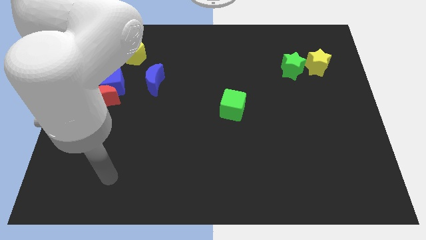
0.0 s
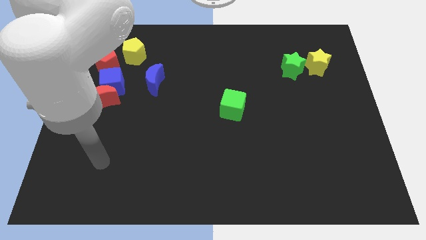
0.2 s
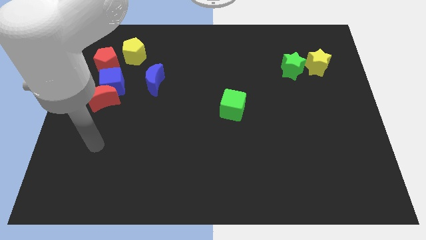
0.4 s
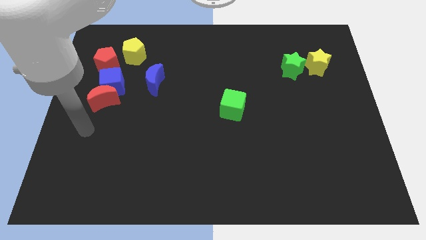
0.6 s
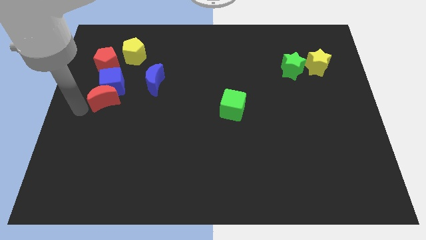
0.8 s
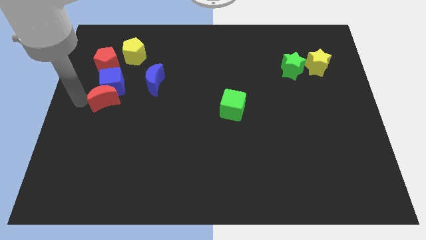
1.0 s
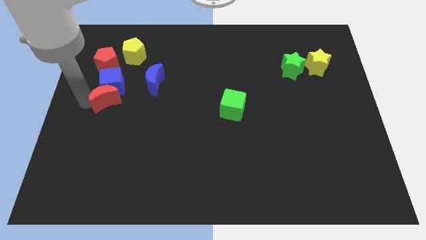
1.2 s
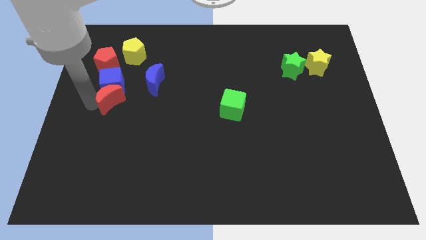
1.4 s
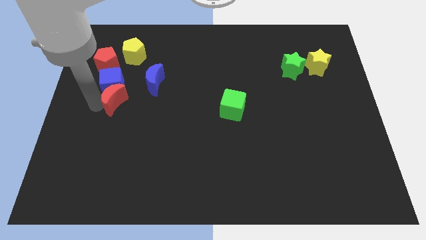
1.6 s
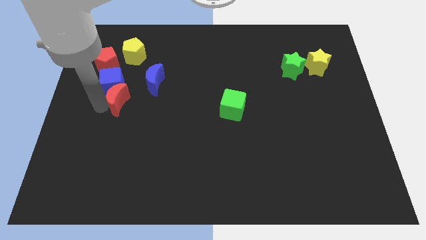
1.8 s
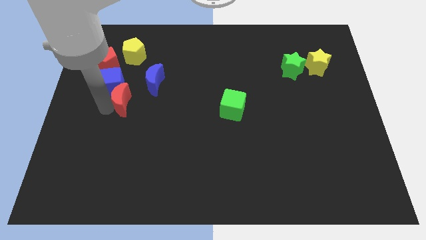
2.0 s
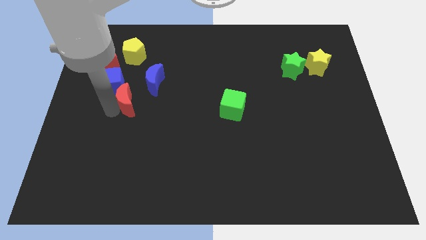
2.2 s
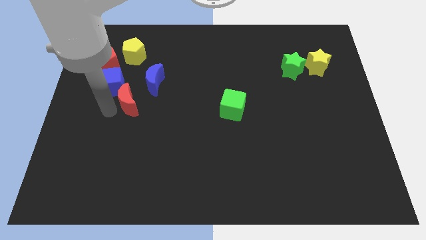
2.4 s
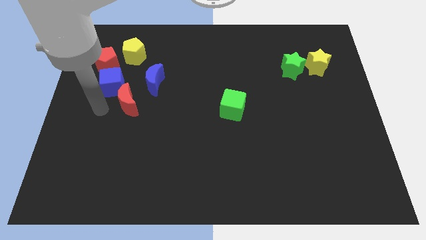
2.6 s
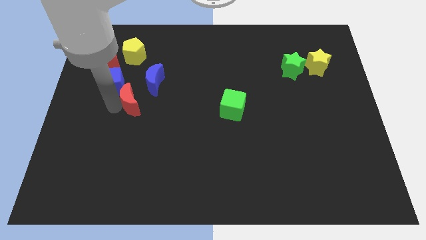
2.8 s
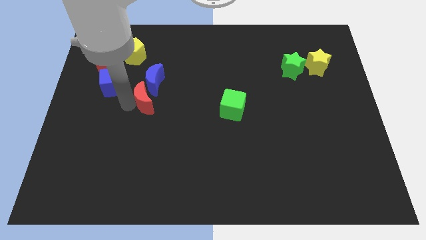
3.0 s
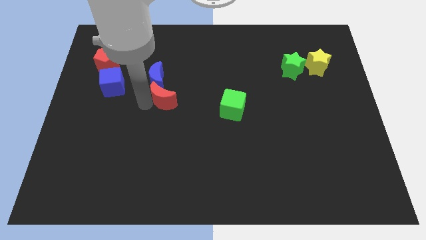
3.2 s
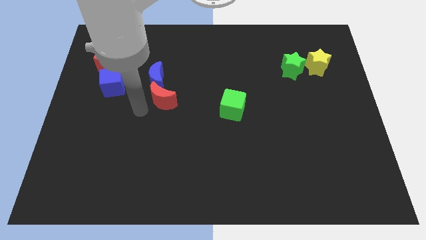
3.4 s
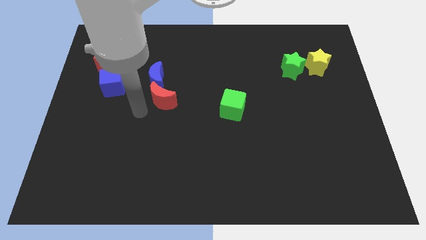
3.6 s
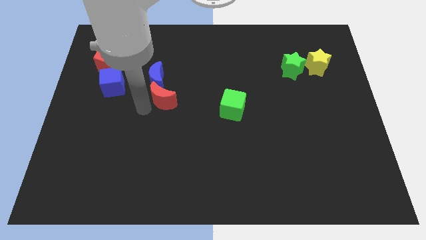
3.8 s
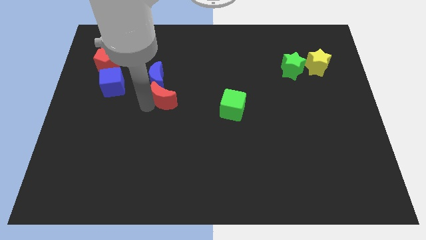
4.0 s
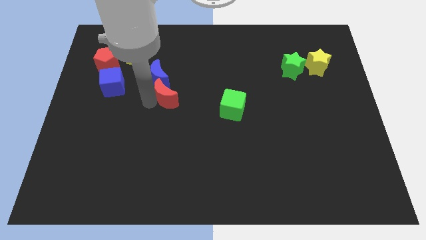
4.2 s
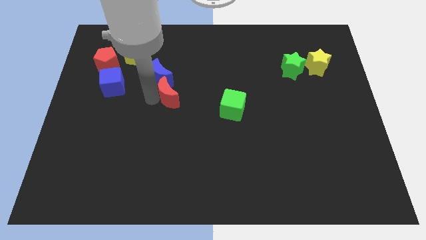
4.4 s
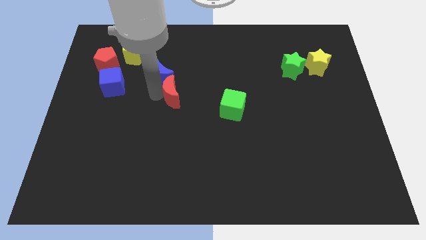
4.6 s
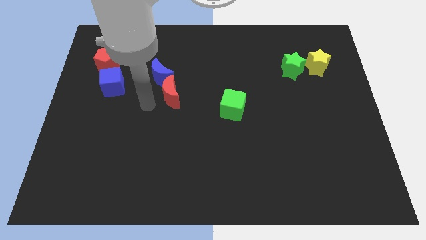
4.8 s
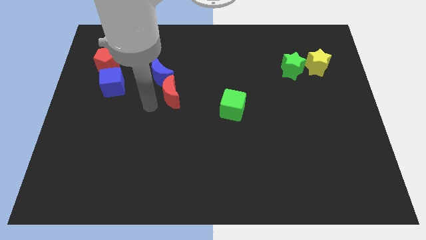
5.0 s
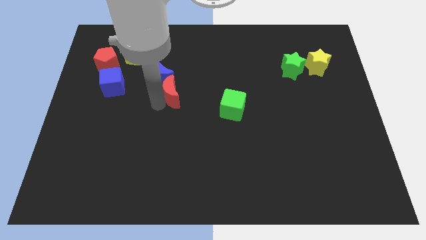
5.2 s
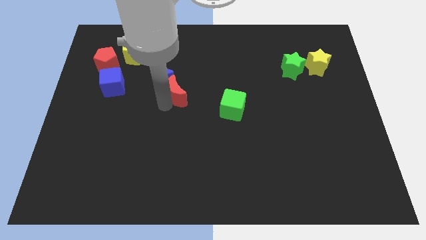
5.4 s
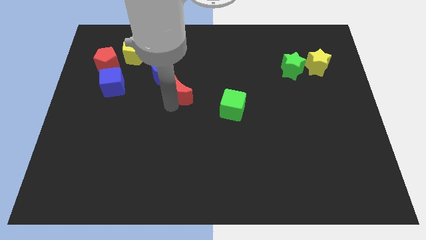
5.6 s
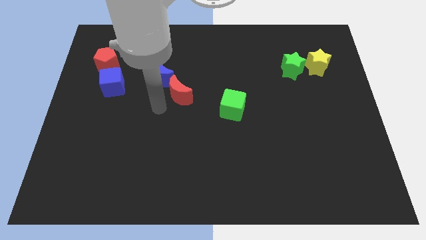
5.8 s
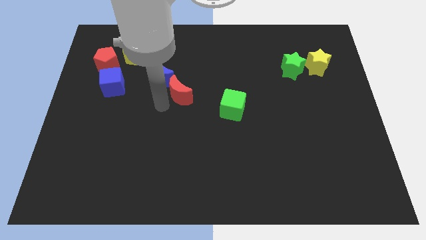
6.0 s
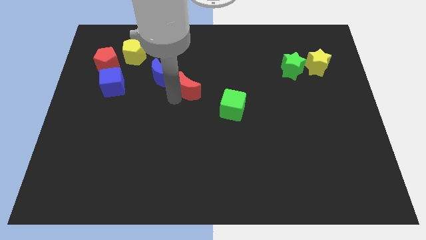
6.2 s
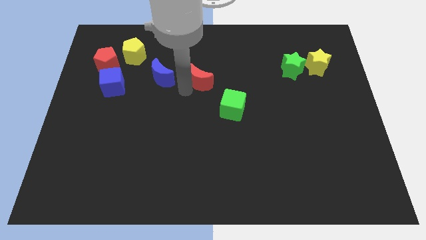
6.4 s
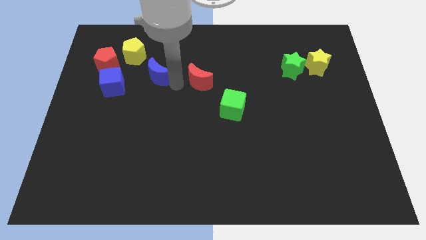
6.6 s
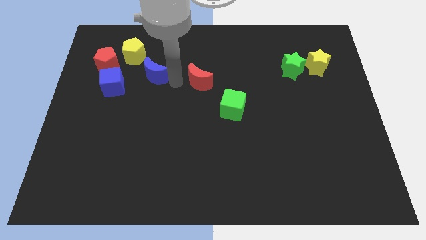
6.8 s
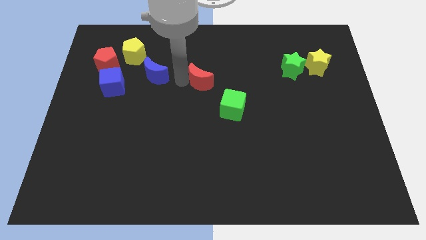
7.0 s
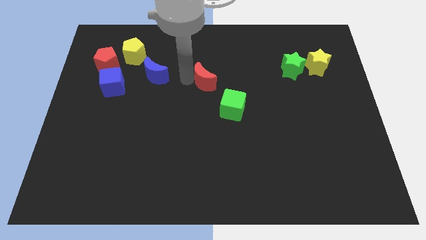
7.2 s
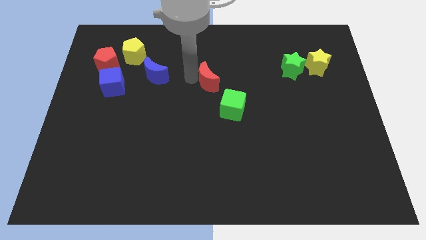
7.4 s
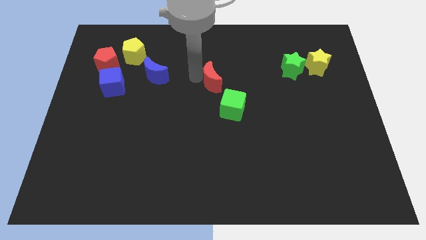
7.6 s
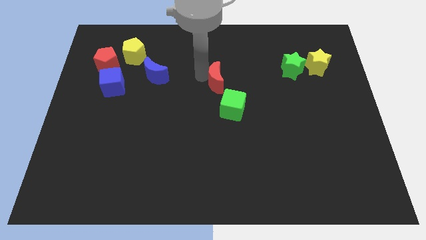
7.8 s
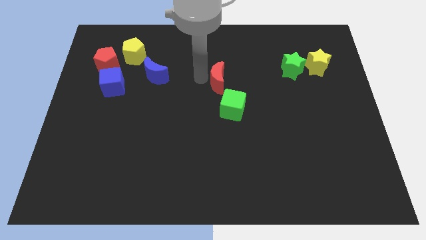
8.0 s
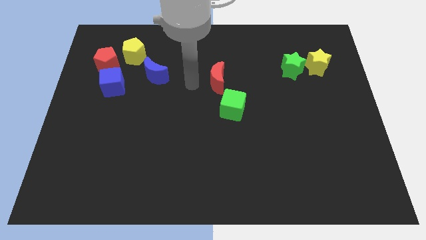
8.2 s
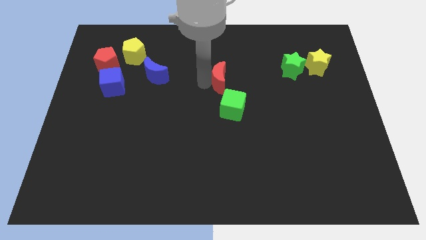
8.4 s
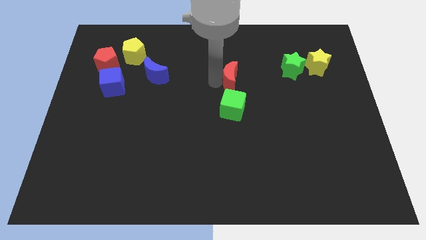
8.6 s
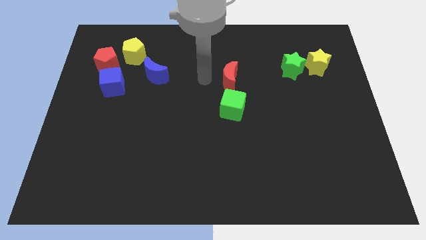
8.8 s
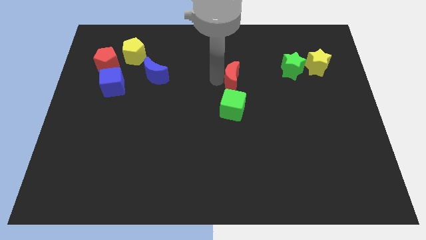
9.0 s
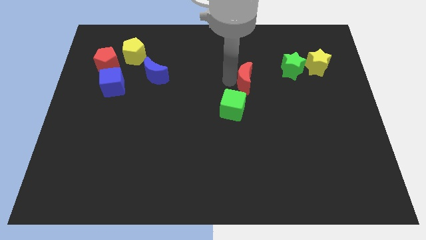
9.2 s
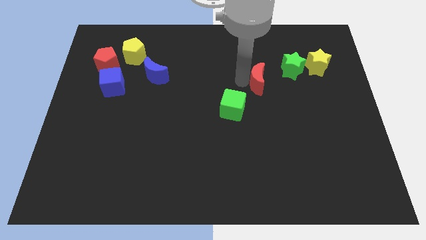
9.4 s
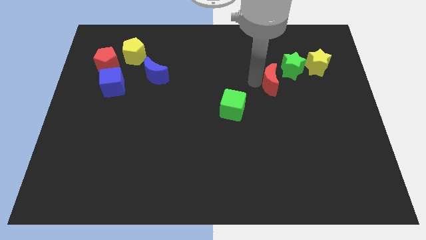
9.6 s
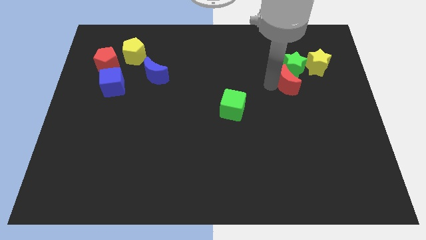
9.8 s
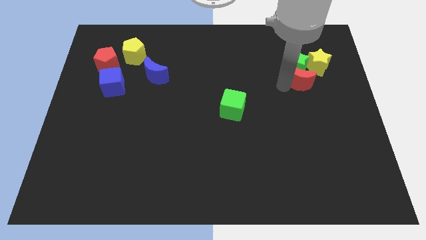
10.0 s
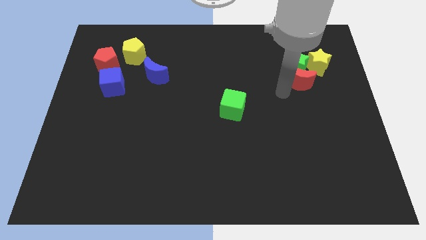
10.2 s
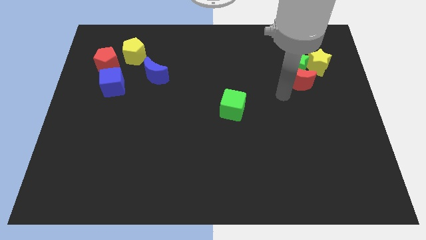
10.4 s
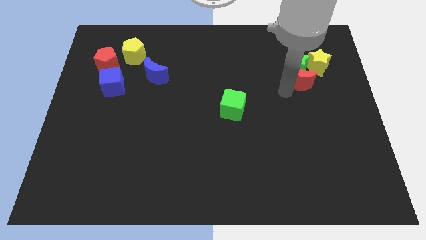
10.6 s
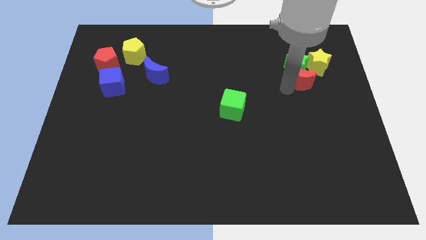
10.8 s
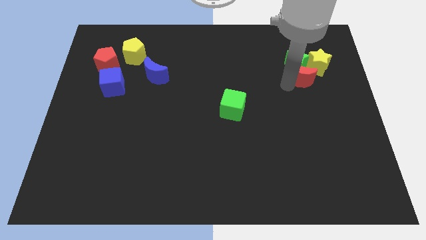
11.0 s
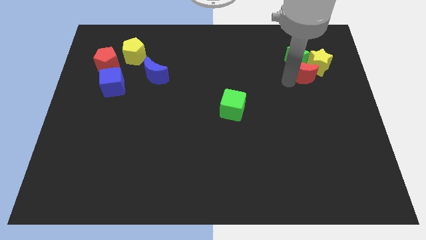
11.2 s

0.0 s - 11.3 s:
push the red moon to the yellow star

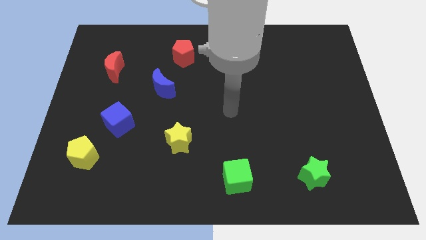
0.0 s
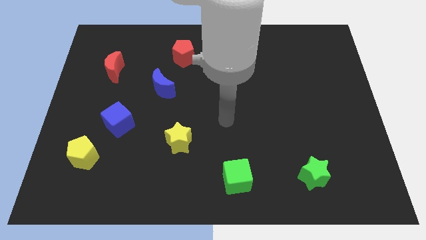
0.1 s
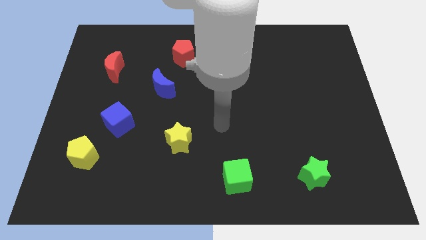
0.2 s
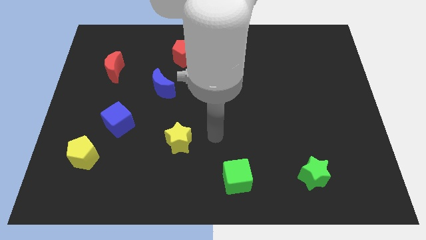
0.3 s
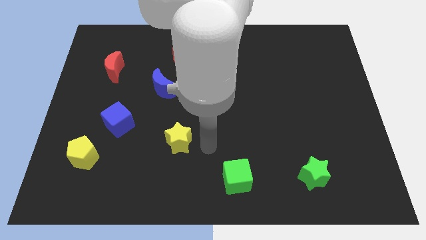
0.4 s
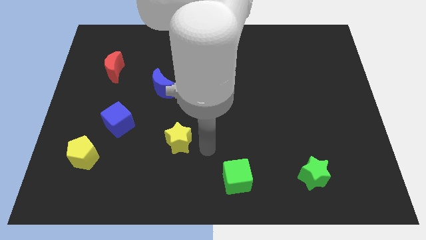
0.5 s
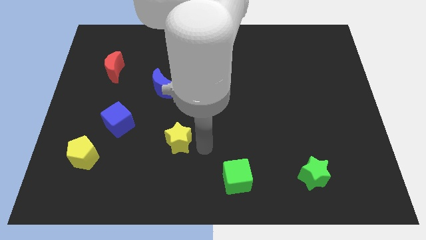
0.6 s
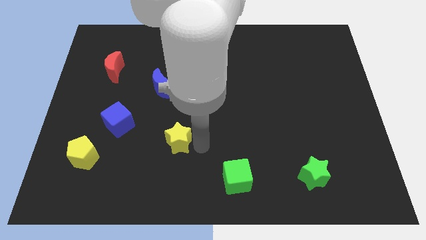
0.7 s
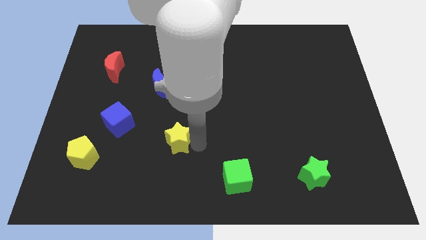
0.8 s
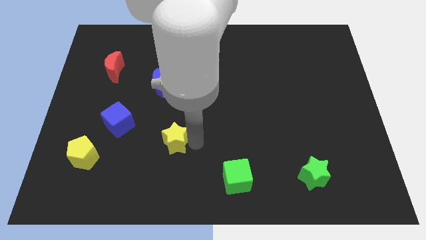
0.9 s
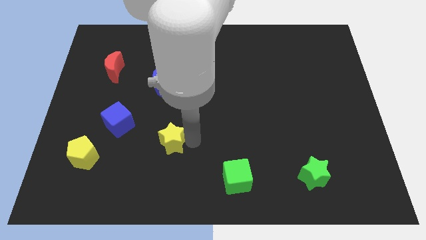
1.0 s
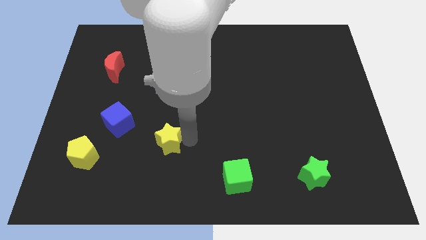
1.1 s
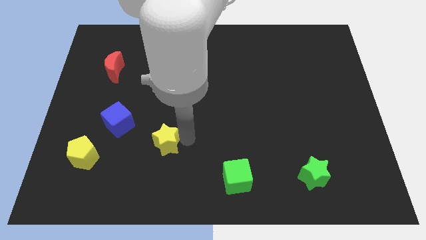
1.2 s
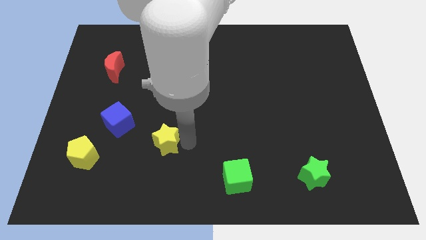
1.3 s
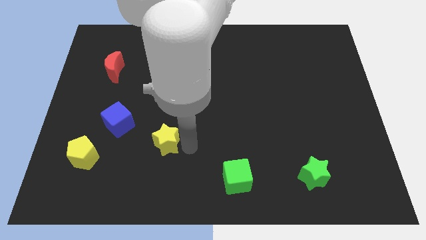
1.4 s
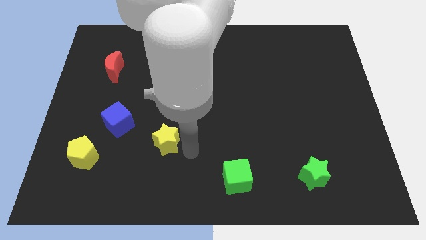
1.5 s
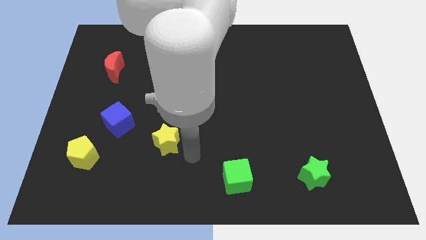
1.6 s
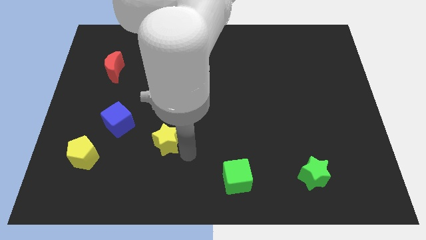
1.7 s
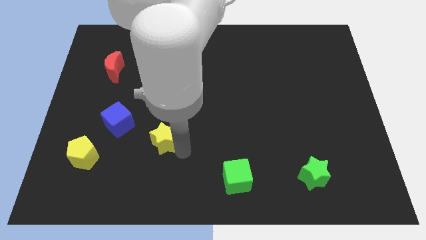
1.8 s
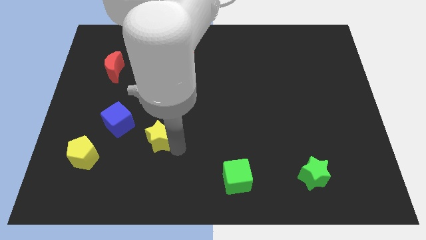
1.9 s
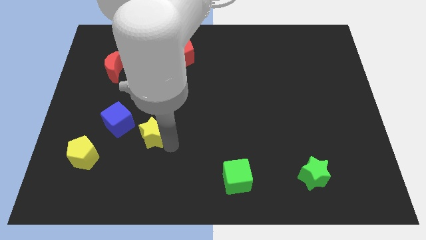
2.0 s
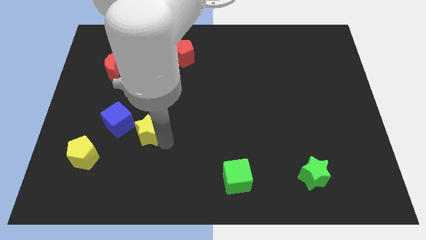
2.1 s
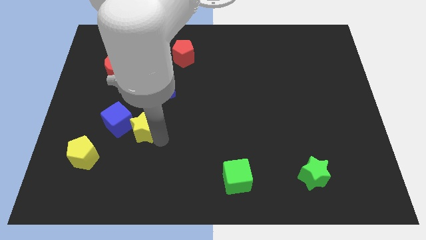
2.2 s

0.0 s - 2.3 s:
push the yellow star close to the blue cube

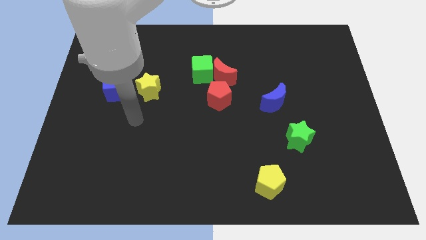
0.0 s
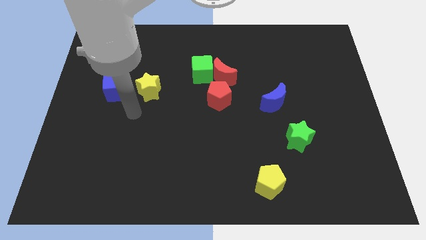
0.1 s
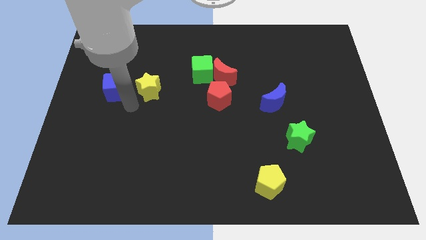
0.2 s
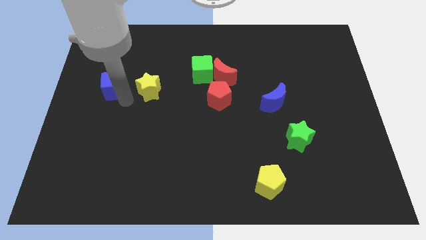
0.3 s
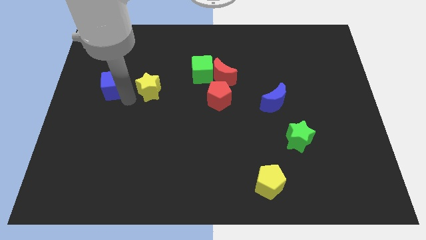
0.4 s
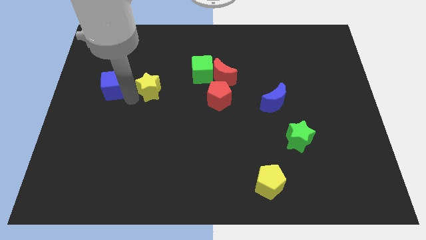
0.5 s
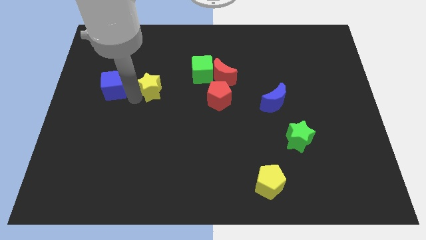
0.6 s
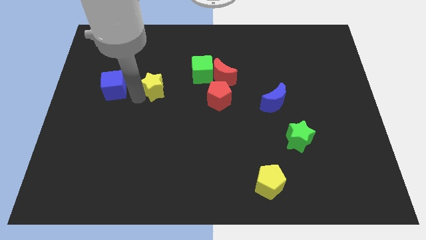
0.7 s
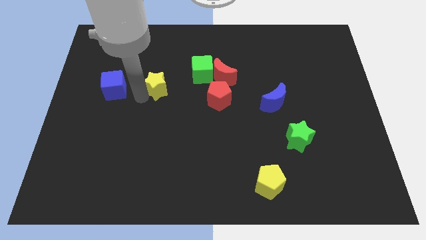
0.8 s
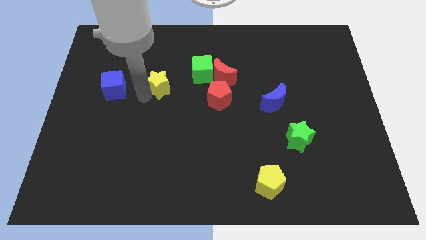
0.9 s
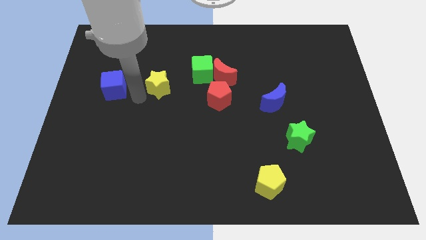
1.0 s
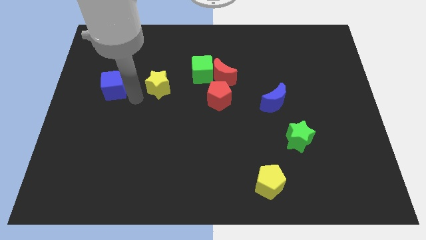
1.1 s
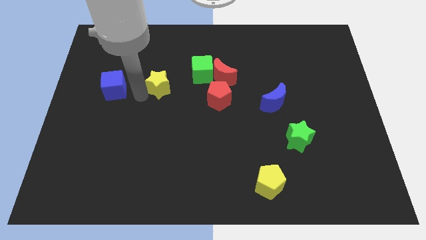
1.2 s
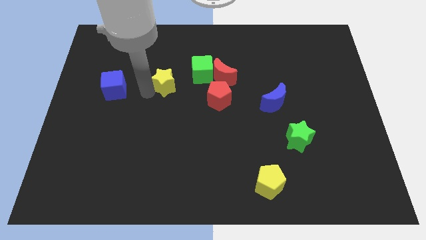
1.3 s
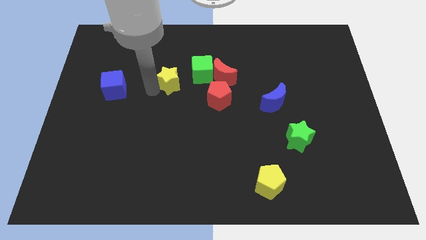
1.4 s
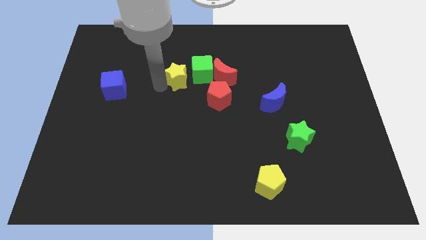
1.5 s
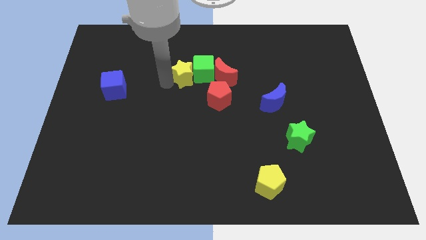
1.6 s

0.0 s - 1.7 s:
push the yellow star towards the green cube
